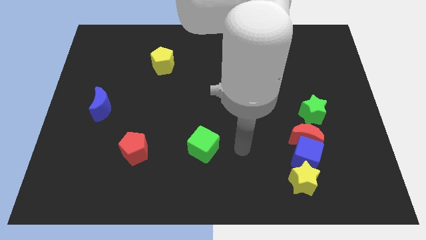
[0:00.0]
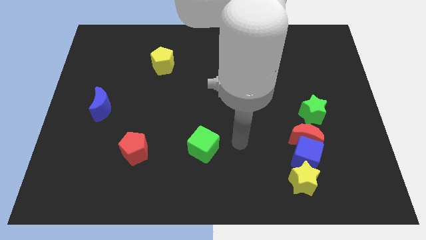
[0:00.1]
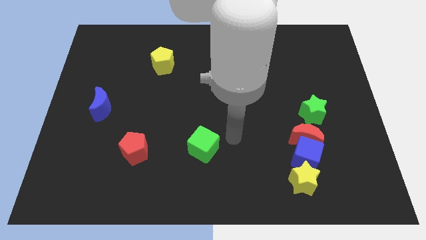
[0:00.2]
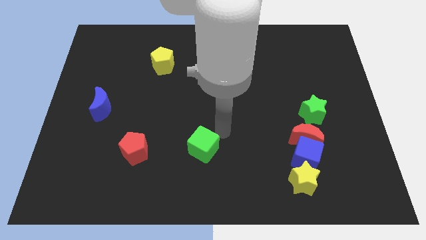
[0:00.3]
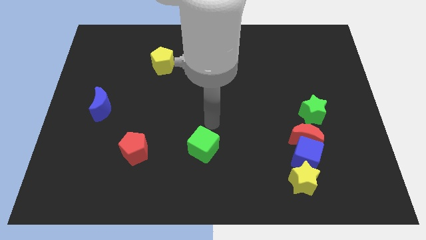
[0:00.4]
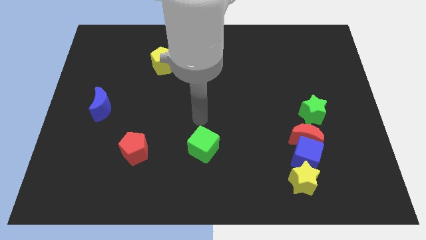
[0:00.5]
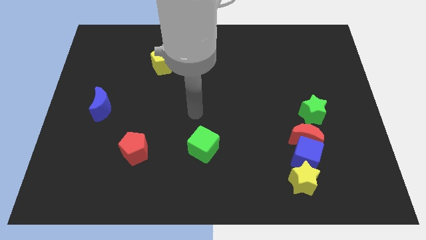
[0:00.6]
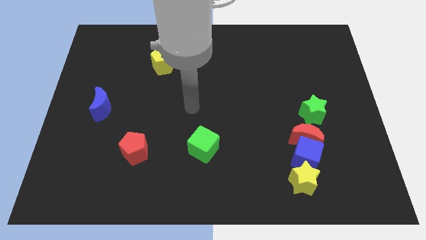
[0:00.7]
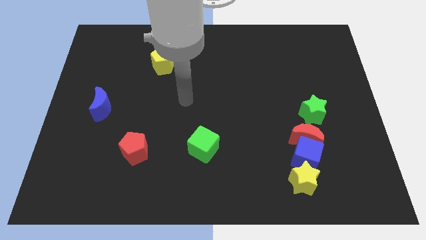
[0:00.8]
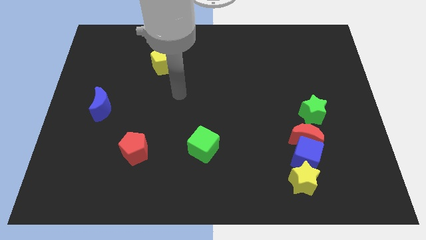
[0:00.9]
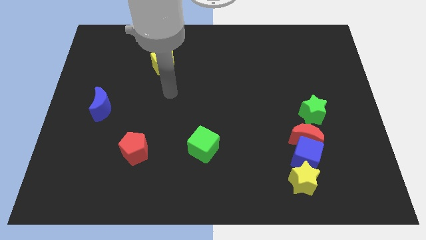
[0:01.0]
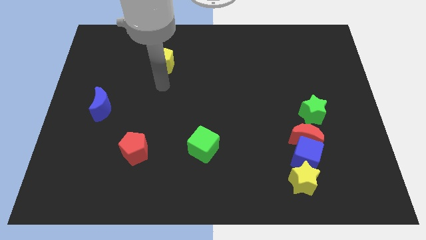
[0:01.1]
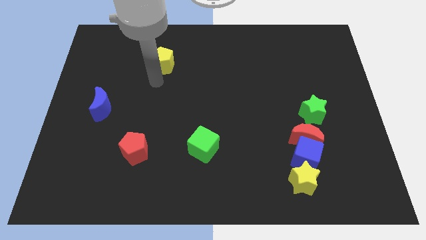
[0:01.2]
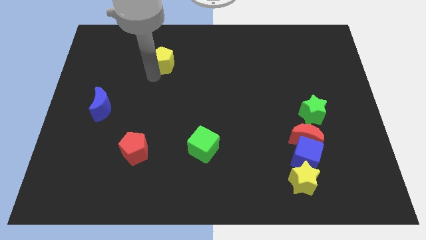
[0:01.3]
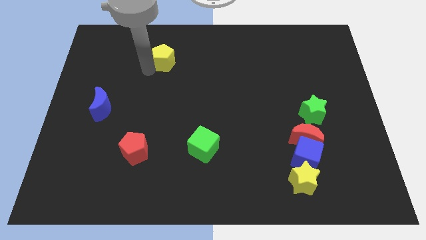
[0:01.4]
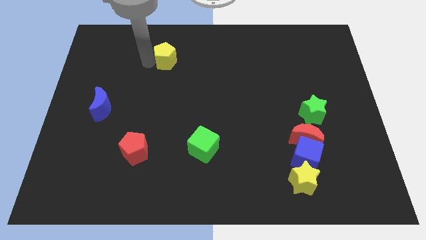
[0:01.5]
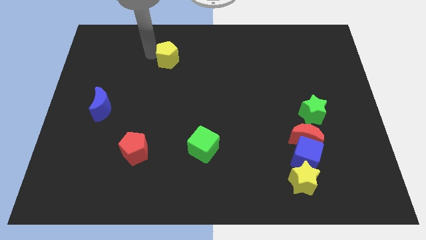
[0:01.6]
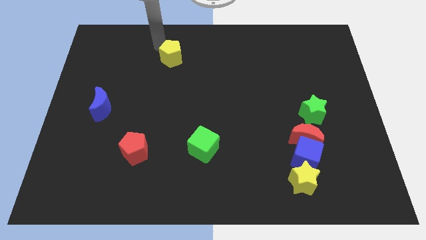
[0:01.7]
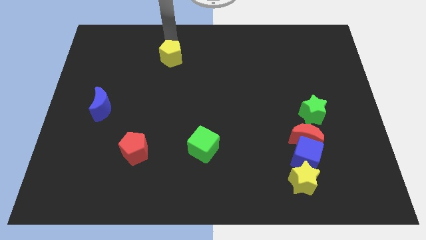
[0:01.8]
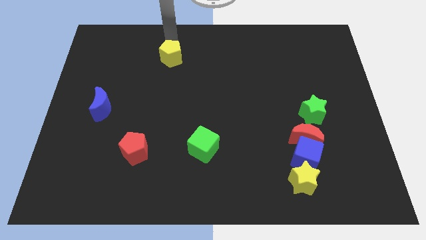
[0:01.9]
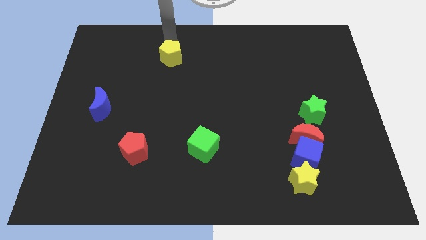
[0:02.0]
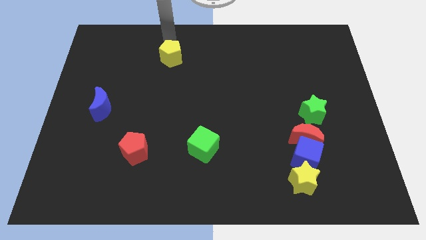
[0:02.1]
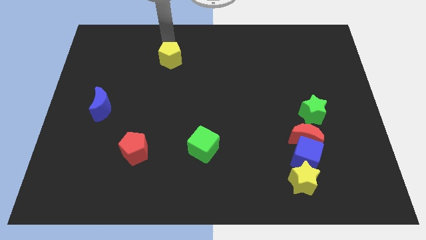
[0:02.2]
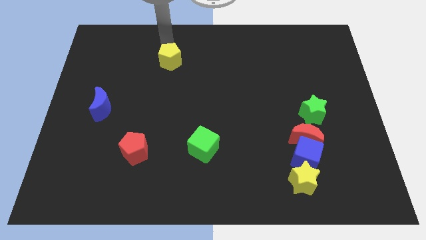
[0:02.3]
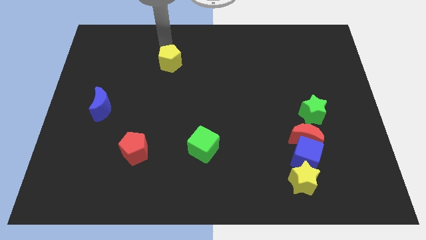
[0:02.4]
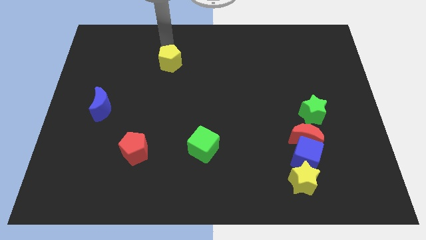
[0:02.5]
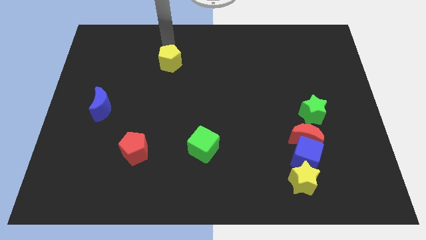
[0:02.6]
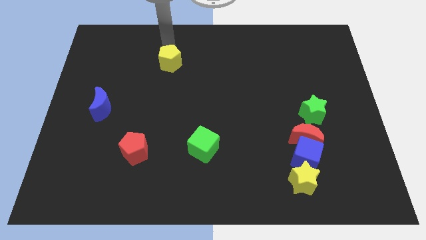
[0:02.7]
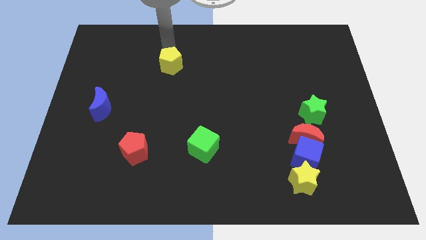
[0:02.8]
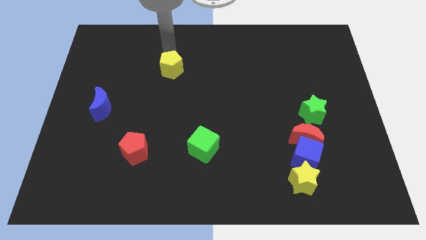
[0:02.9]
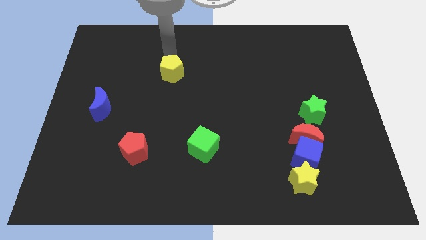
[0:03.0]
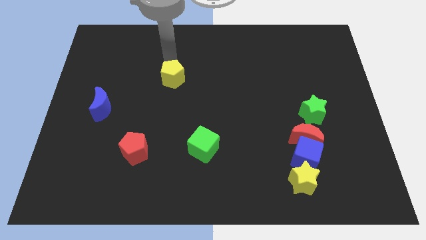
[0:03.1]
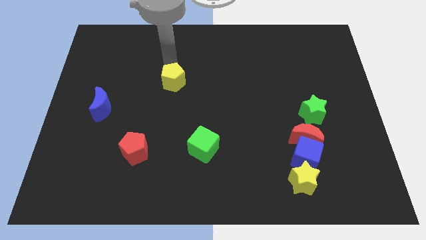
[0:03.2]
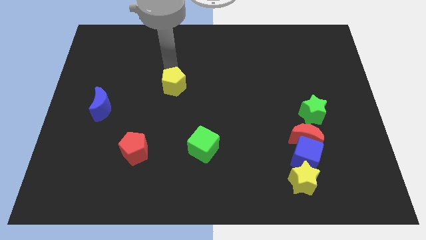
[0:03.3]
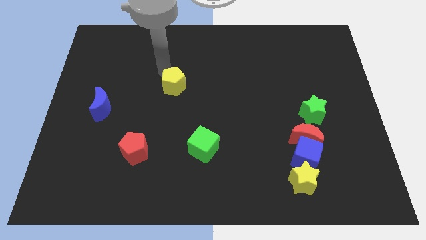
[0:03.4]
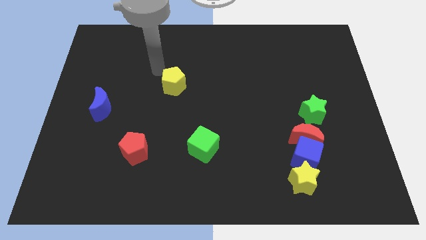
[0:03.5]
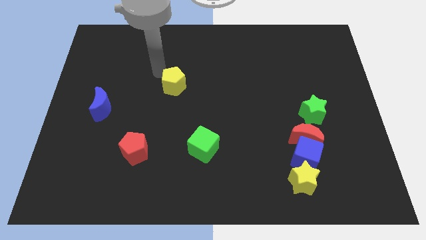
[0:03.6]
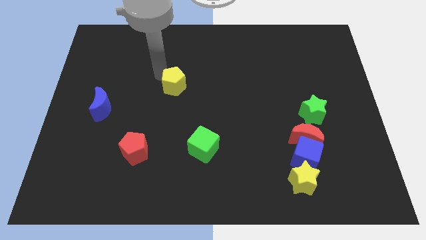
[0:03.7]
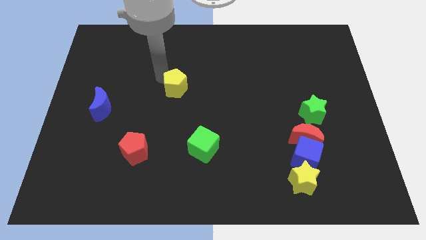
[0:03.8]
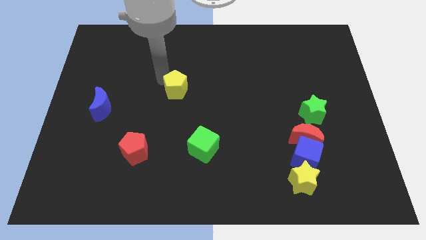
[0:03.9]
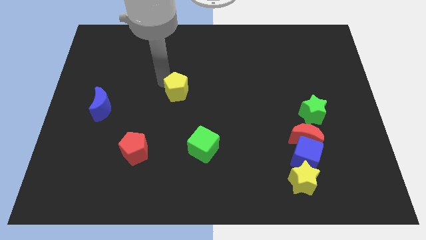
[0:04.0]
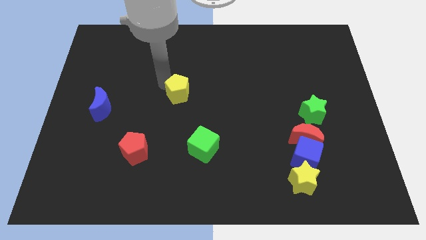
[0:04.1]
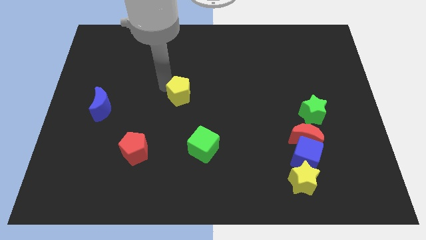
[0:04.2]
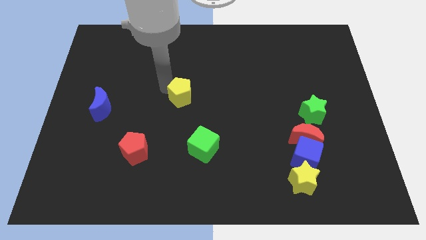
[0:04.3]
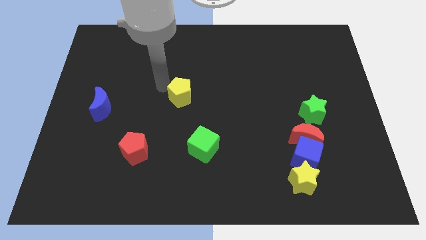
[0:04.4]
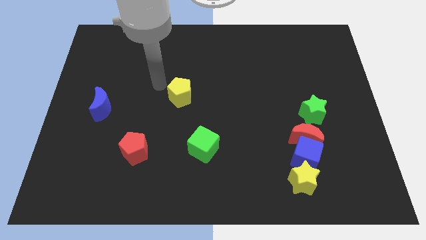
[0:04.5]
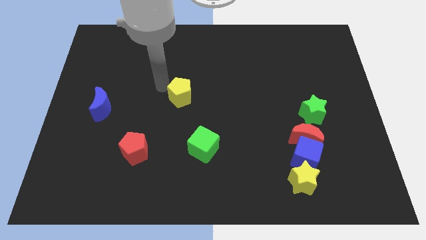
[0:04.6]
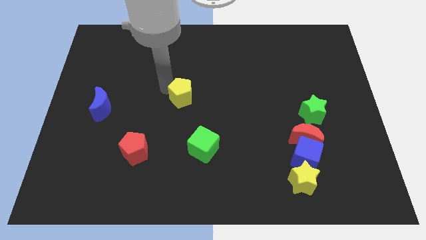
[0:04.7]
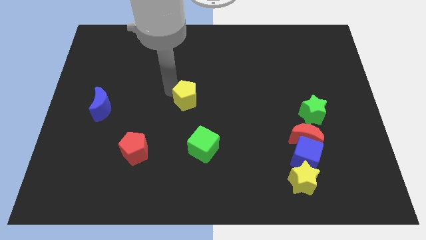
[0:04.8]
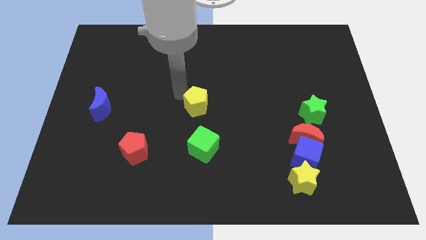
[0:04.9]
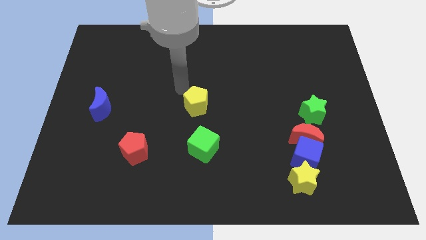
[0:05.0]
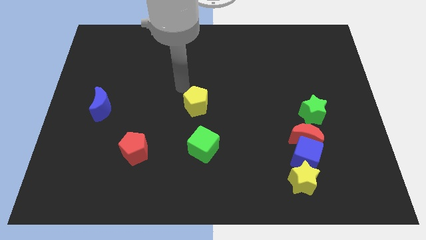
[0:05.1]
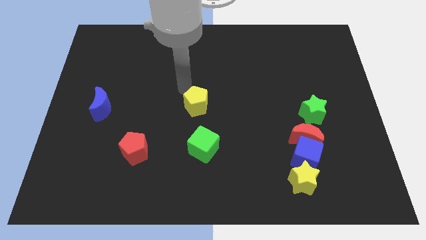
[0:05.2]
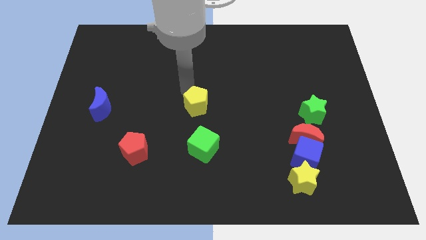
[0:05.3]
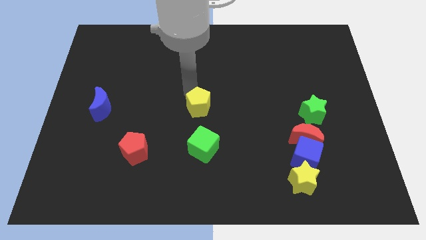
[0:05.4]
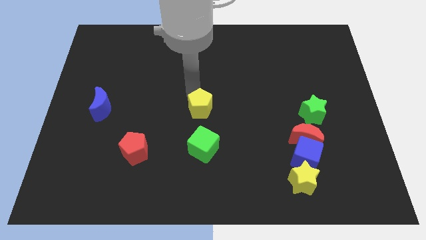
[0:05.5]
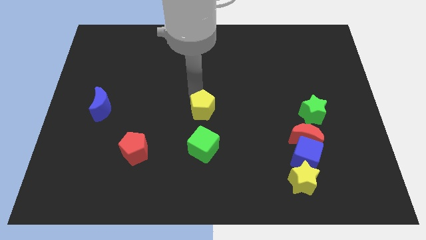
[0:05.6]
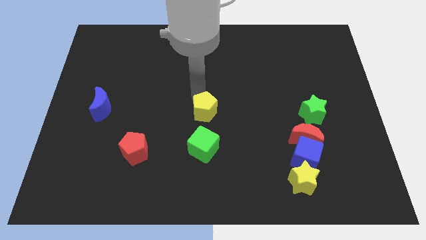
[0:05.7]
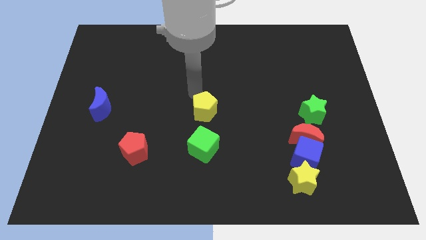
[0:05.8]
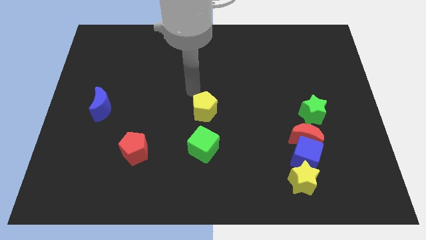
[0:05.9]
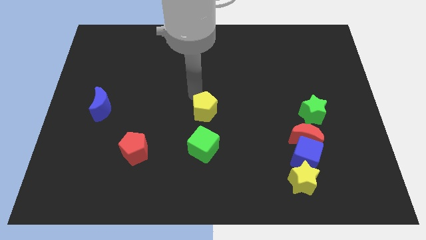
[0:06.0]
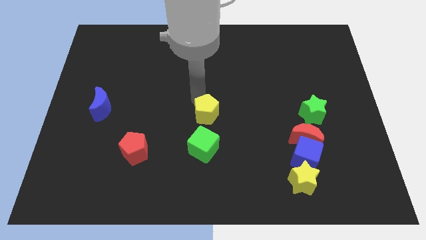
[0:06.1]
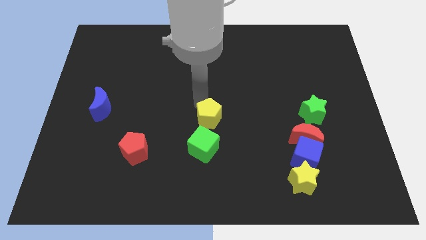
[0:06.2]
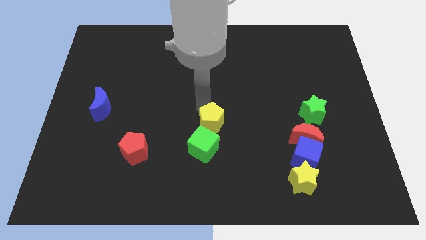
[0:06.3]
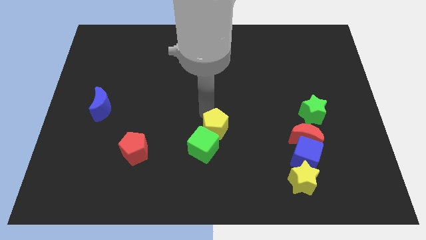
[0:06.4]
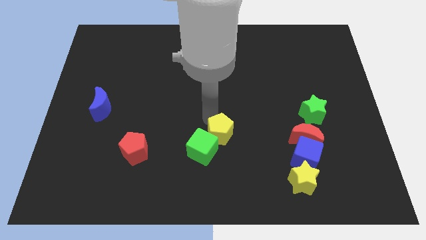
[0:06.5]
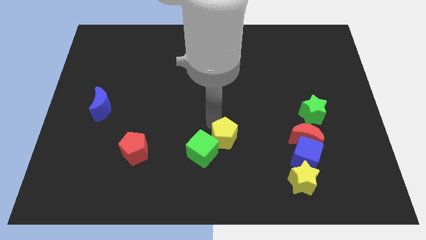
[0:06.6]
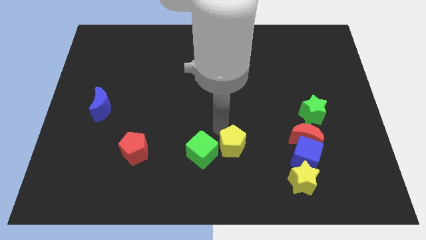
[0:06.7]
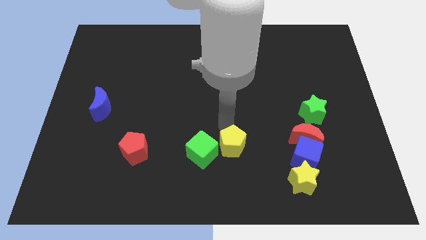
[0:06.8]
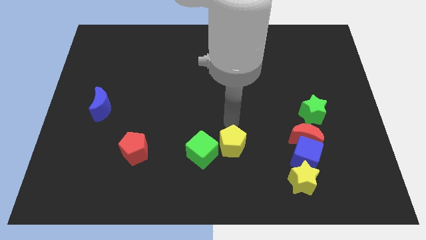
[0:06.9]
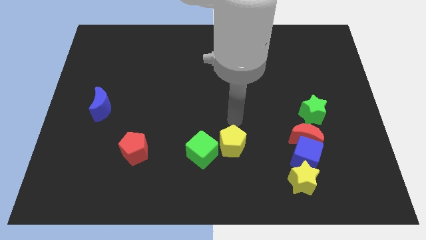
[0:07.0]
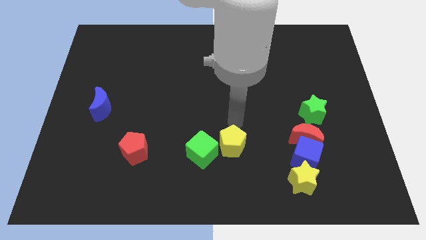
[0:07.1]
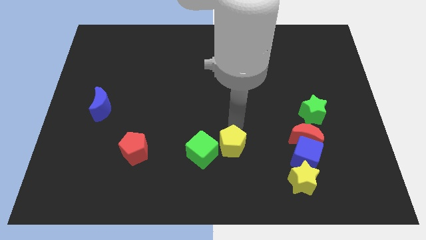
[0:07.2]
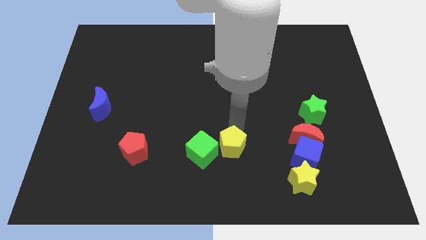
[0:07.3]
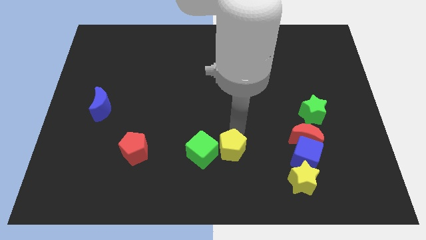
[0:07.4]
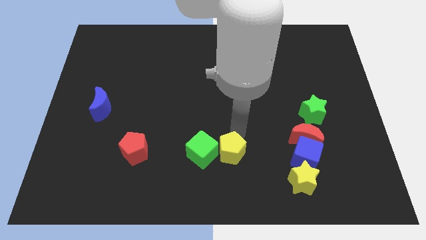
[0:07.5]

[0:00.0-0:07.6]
push the yellow pentagon diagonally down and to the right of the green cube
